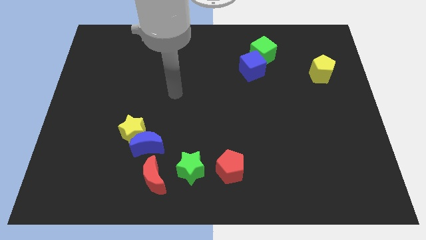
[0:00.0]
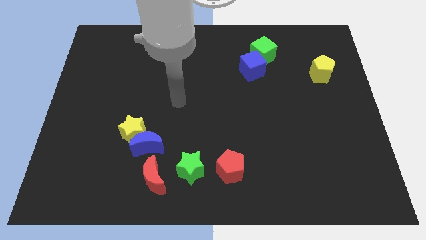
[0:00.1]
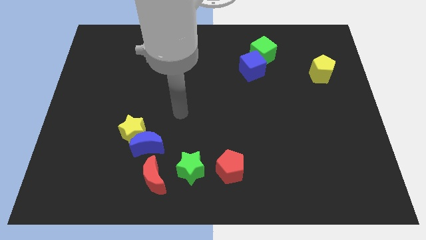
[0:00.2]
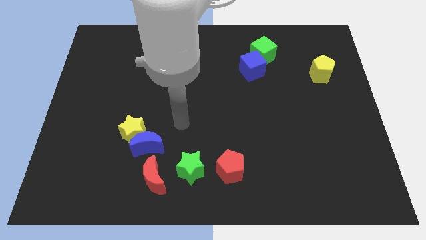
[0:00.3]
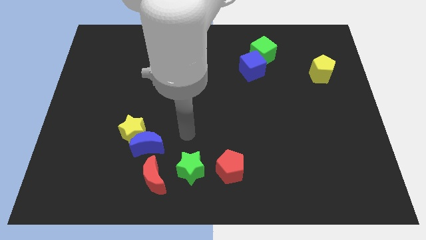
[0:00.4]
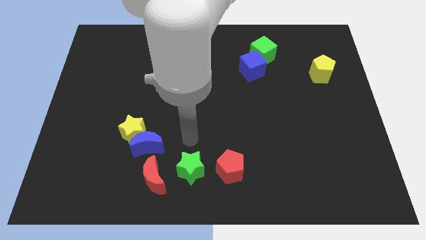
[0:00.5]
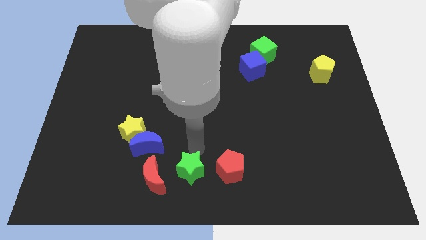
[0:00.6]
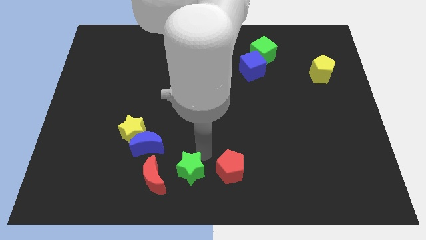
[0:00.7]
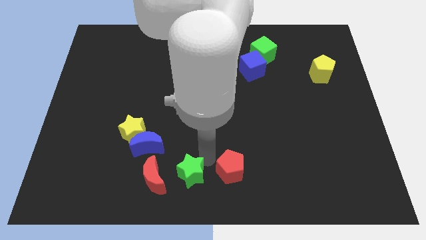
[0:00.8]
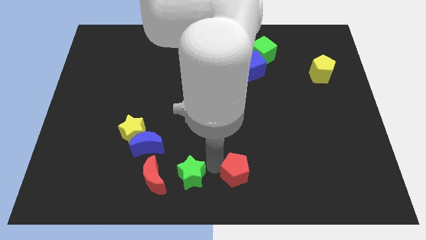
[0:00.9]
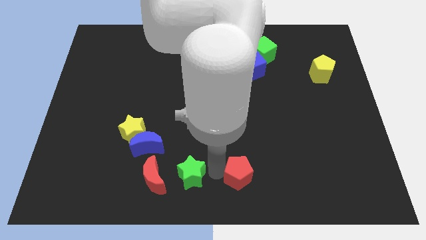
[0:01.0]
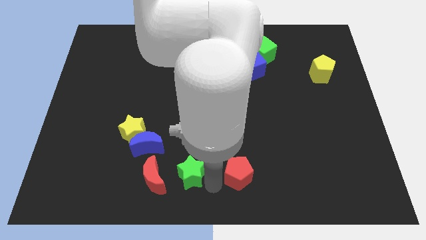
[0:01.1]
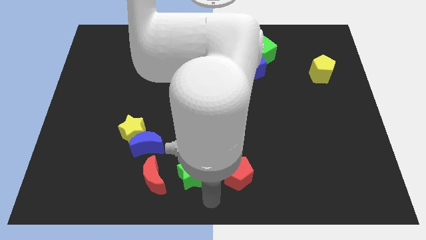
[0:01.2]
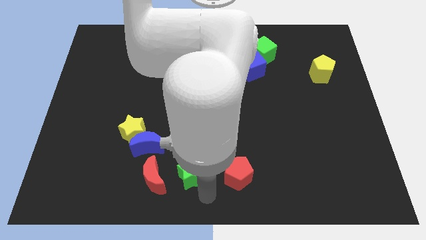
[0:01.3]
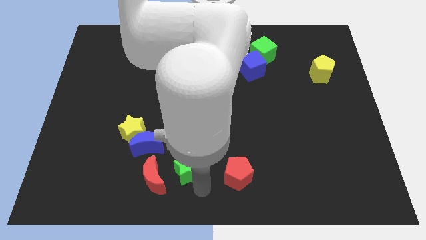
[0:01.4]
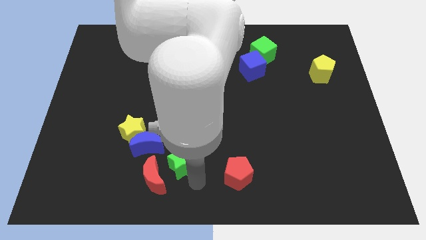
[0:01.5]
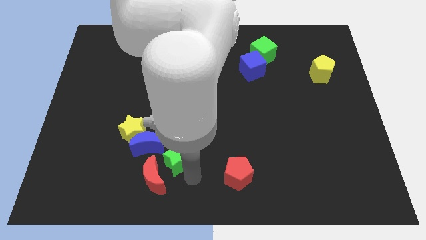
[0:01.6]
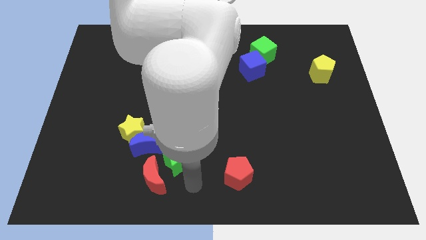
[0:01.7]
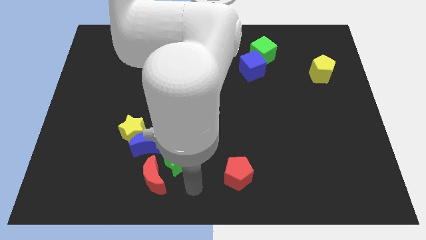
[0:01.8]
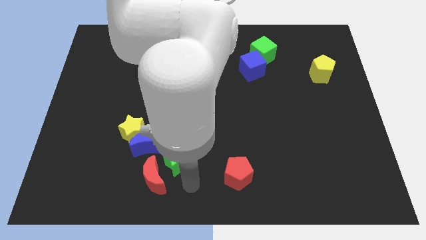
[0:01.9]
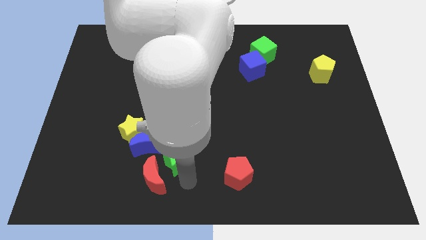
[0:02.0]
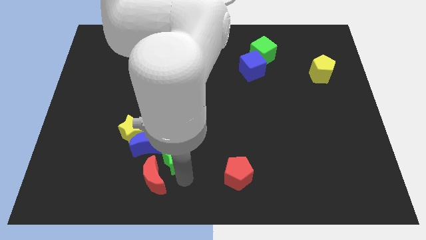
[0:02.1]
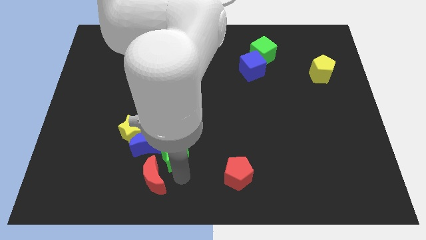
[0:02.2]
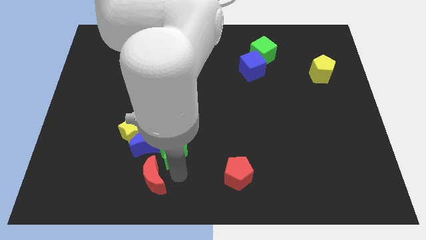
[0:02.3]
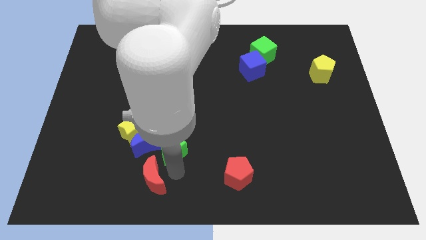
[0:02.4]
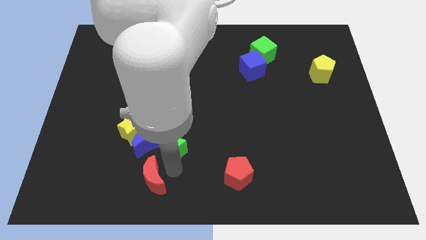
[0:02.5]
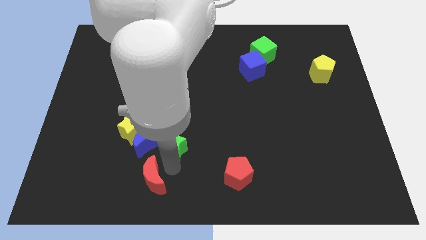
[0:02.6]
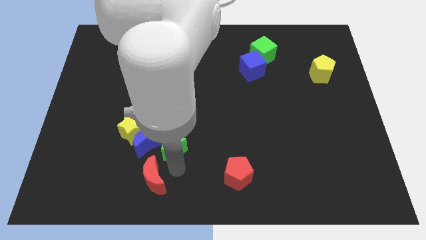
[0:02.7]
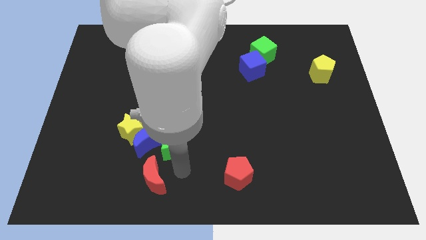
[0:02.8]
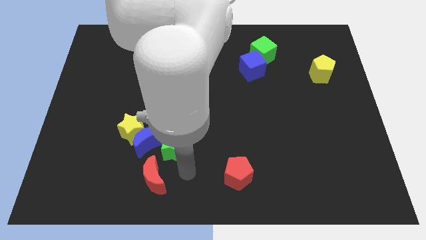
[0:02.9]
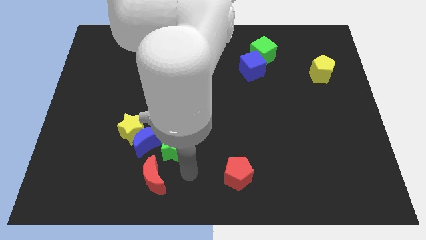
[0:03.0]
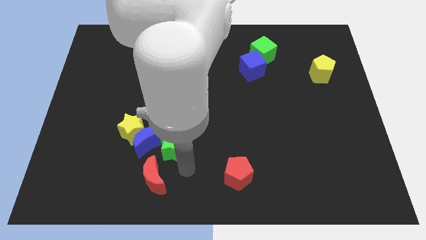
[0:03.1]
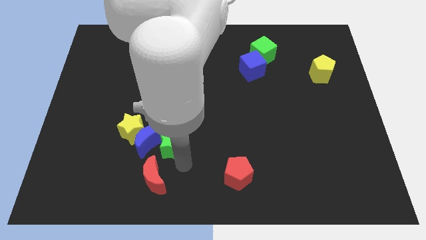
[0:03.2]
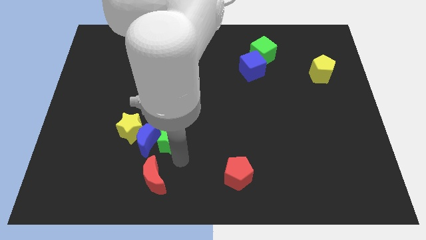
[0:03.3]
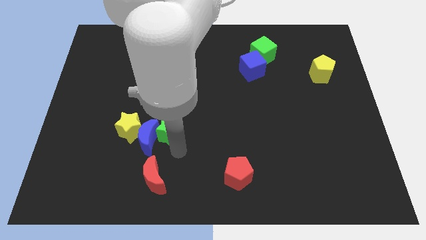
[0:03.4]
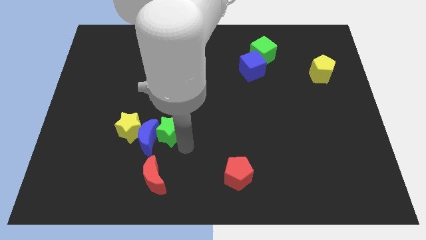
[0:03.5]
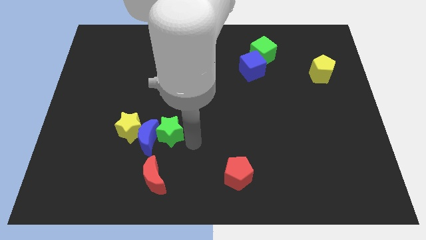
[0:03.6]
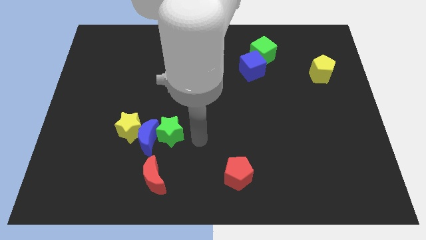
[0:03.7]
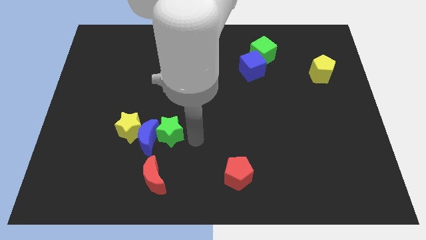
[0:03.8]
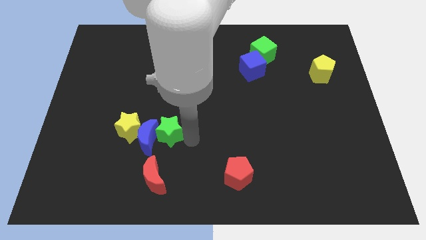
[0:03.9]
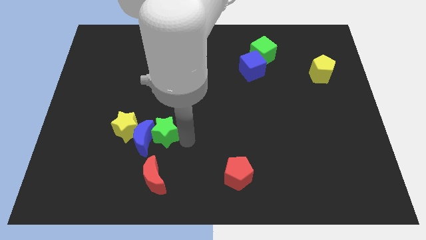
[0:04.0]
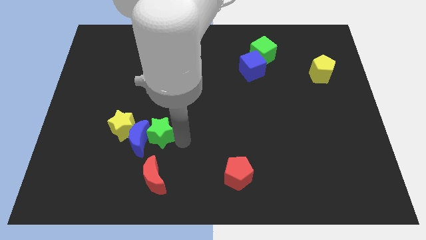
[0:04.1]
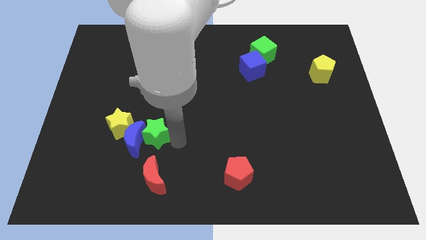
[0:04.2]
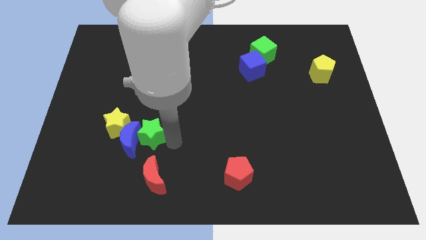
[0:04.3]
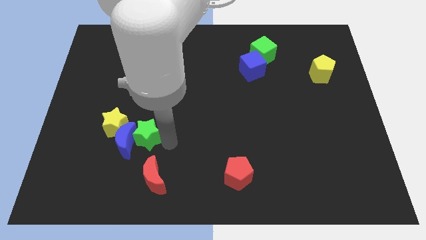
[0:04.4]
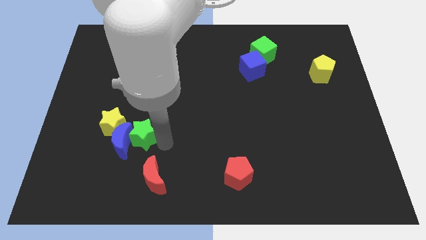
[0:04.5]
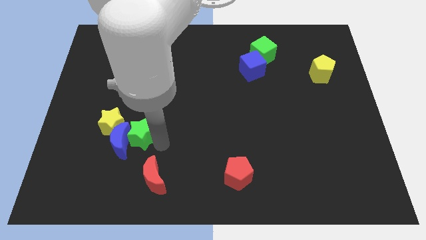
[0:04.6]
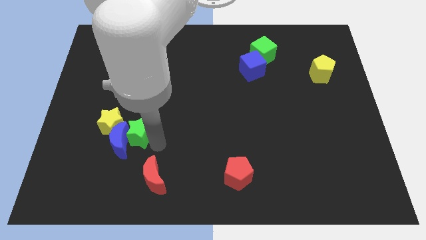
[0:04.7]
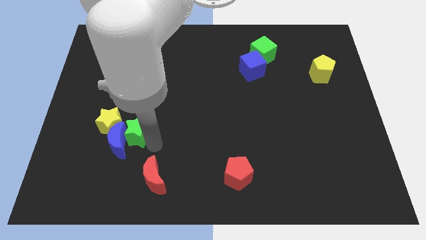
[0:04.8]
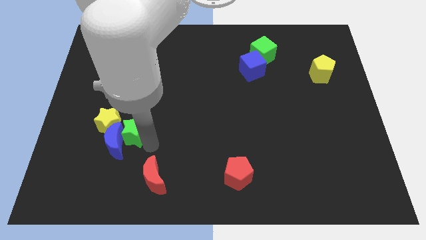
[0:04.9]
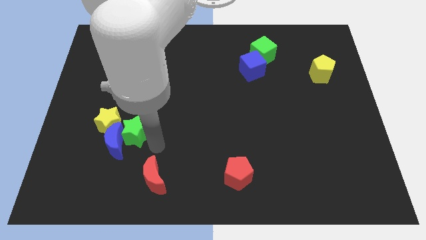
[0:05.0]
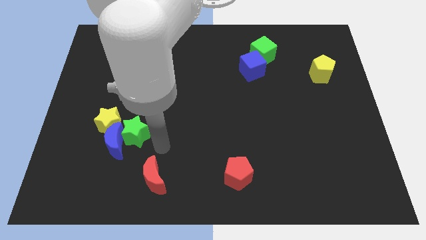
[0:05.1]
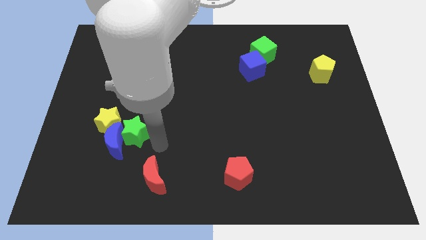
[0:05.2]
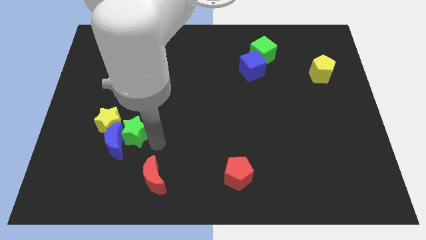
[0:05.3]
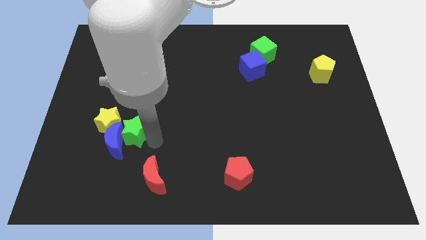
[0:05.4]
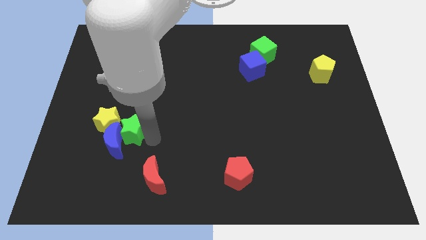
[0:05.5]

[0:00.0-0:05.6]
put the green star towards the yellow star

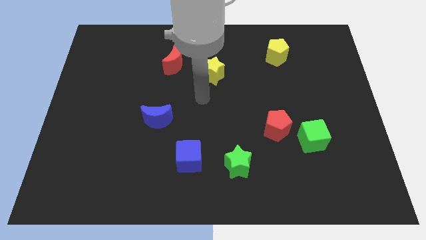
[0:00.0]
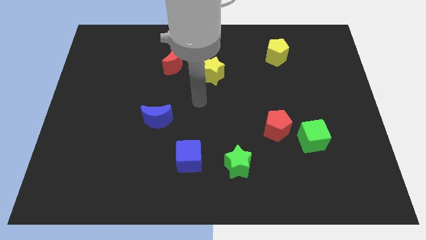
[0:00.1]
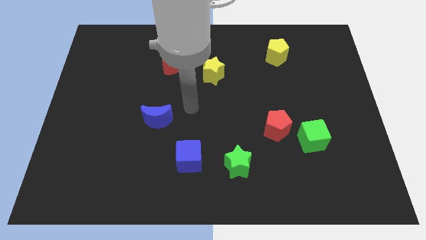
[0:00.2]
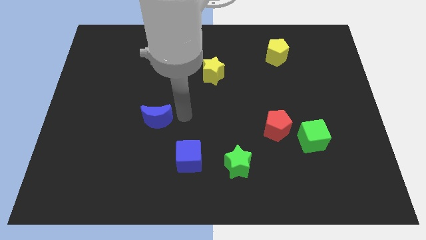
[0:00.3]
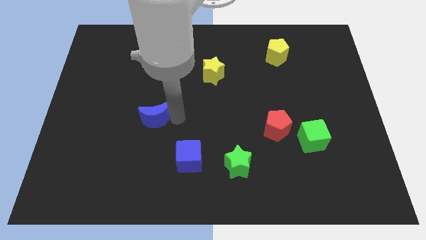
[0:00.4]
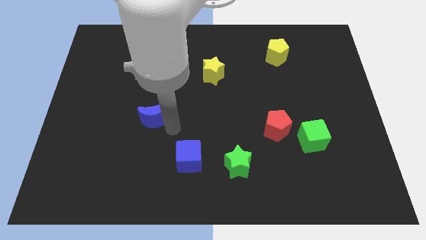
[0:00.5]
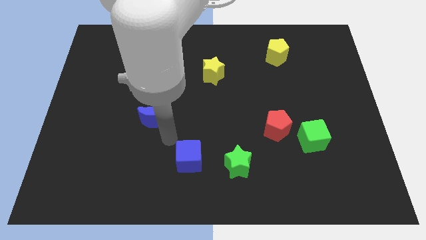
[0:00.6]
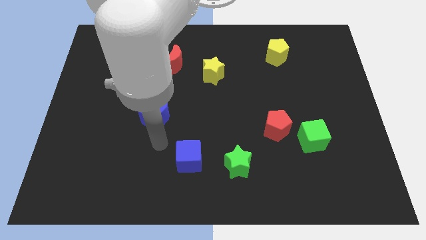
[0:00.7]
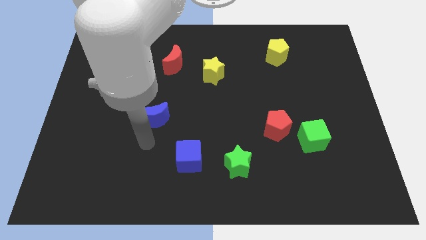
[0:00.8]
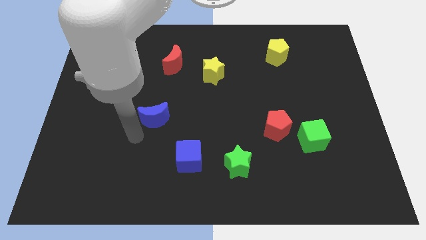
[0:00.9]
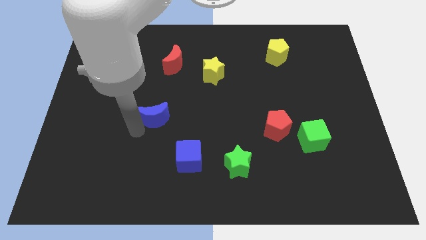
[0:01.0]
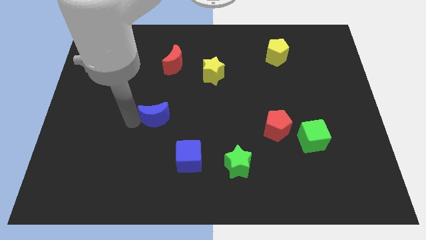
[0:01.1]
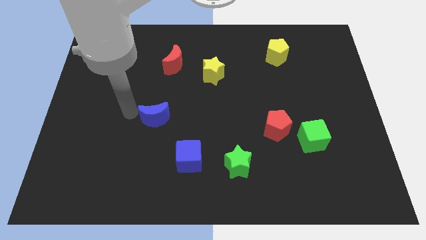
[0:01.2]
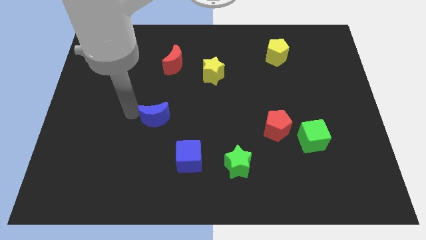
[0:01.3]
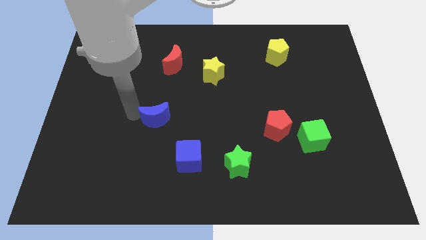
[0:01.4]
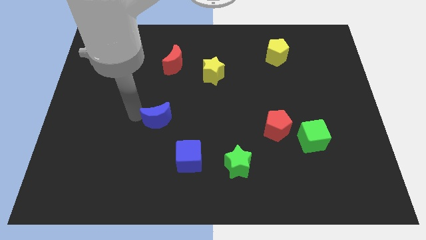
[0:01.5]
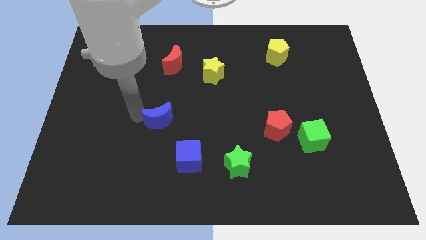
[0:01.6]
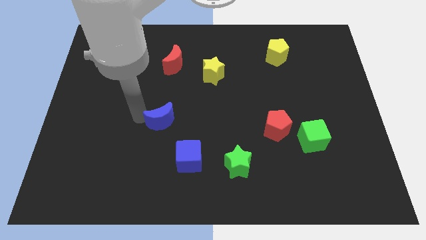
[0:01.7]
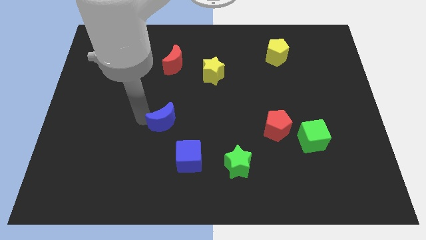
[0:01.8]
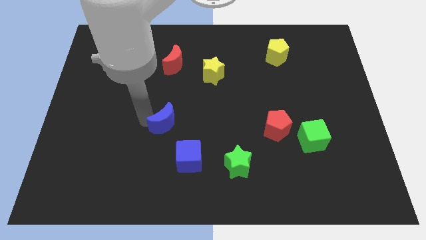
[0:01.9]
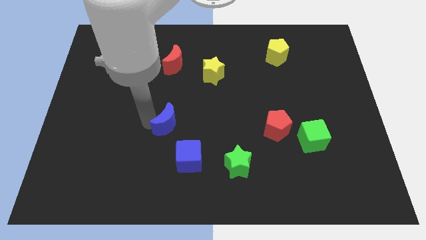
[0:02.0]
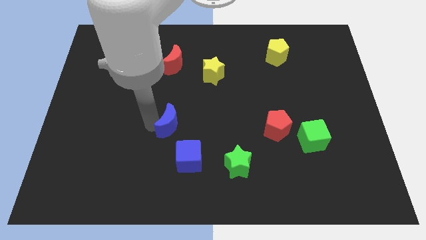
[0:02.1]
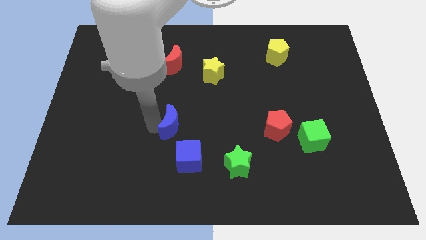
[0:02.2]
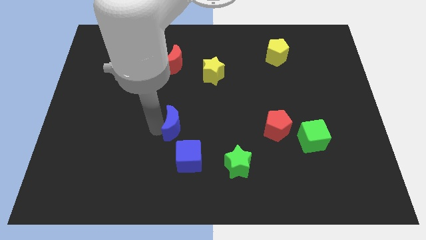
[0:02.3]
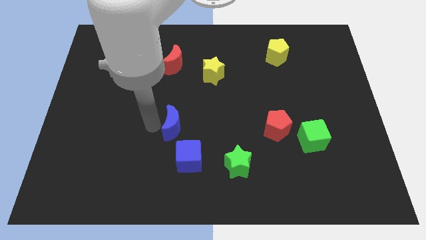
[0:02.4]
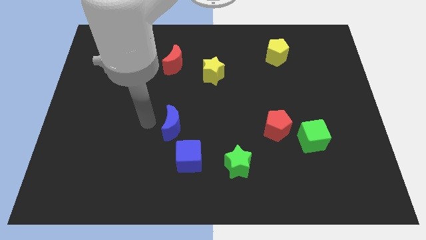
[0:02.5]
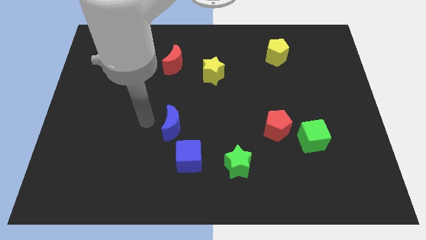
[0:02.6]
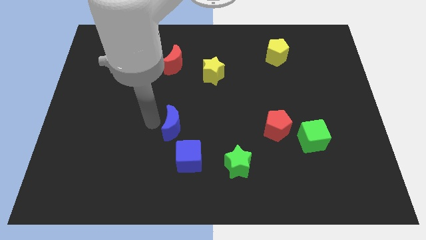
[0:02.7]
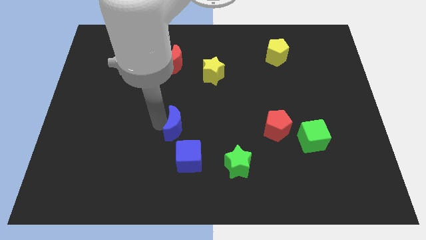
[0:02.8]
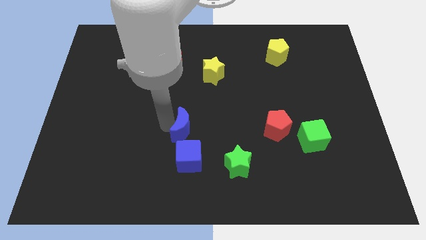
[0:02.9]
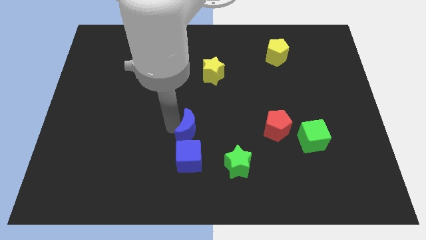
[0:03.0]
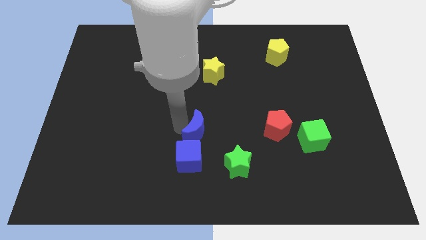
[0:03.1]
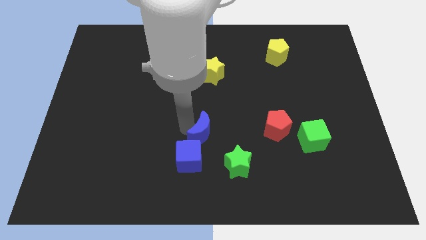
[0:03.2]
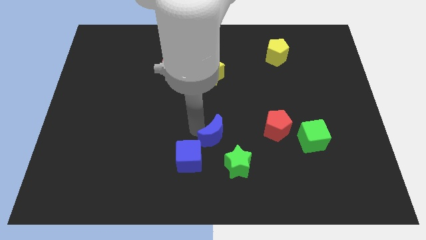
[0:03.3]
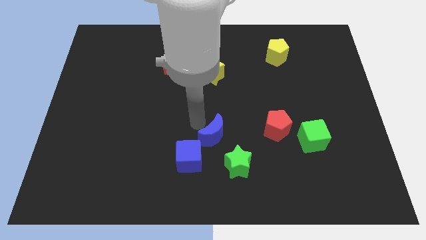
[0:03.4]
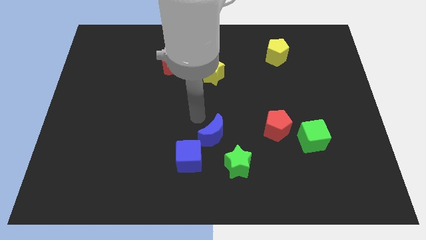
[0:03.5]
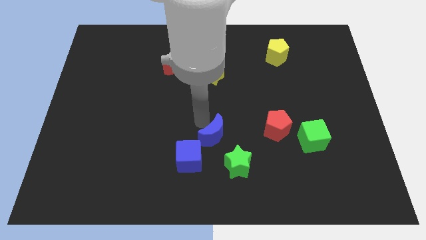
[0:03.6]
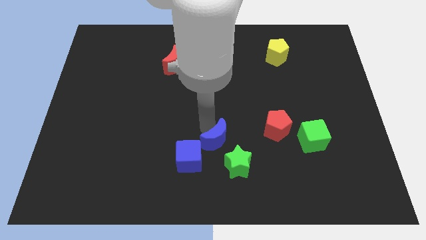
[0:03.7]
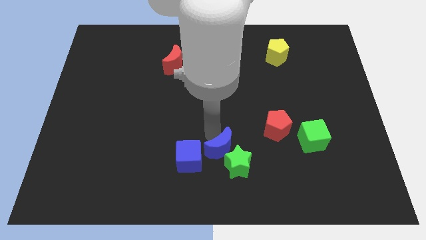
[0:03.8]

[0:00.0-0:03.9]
move the blue moon next to the green star
